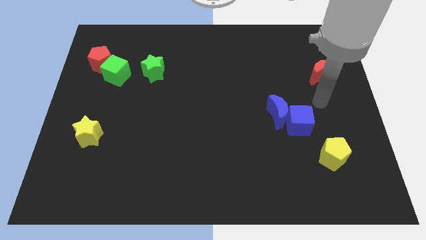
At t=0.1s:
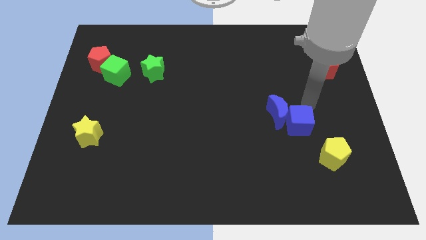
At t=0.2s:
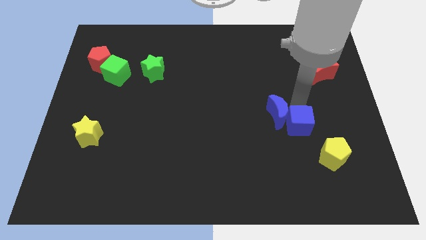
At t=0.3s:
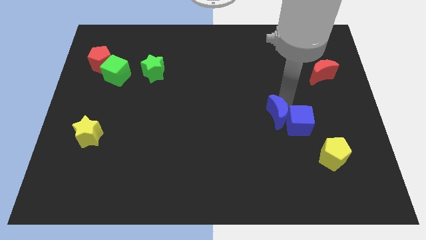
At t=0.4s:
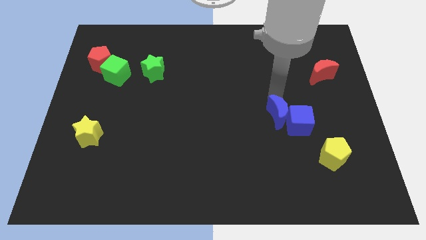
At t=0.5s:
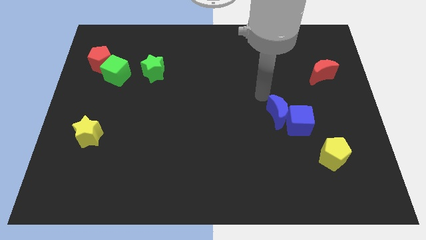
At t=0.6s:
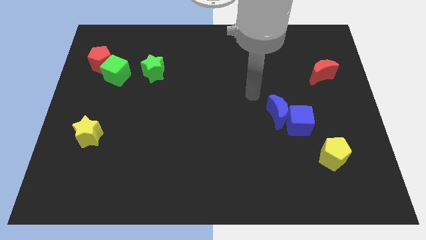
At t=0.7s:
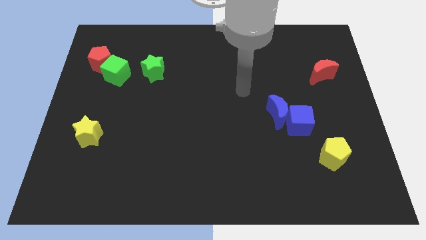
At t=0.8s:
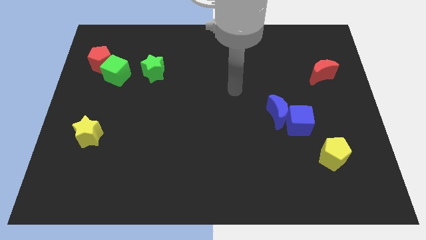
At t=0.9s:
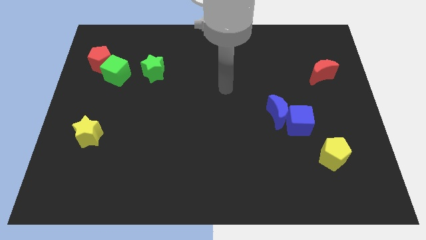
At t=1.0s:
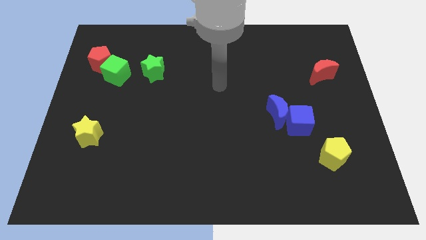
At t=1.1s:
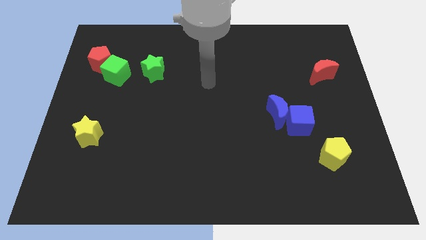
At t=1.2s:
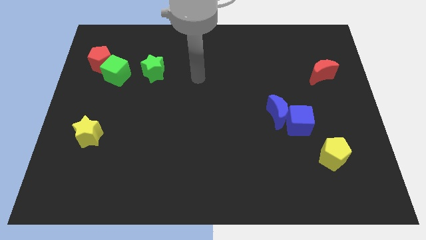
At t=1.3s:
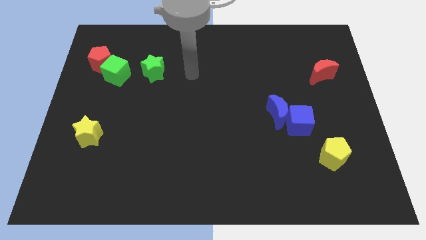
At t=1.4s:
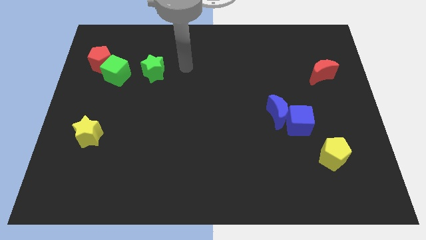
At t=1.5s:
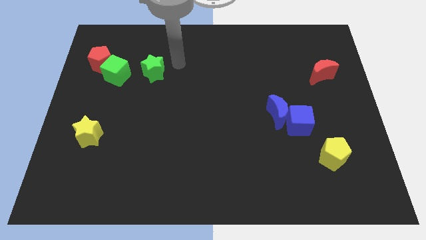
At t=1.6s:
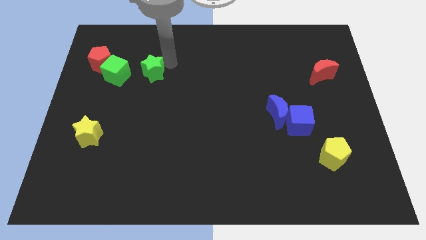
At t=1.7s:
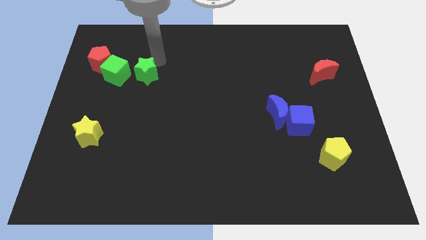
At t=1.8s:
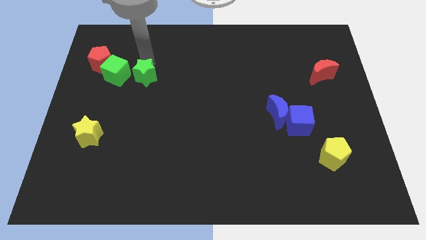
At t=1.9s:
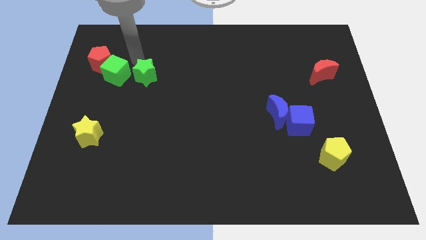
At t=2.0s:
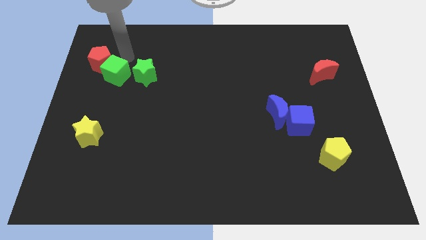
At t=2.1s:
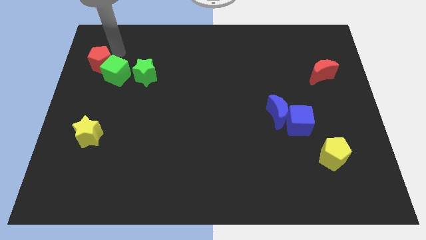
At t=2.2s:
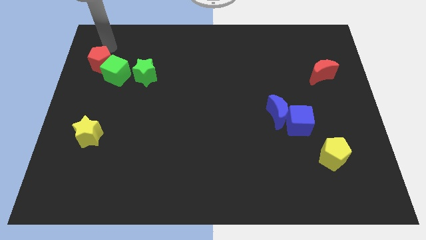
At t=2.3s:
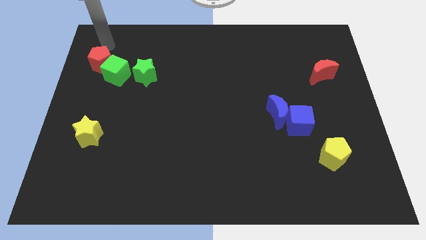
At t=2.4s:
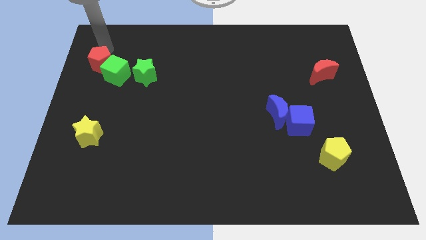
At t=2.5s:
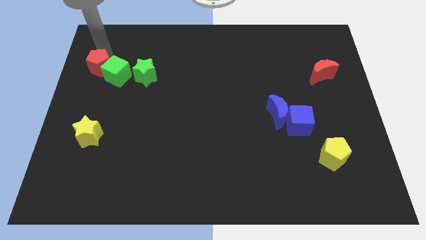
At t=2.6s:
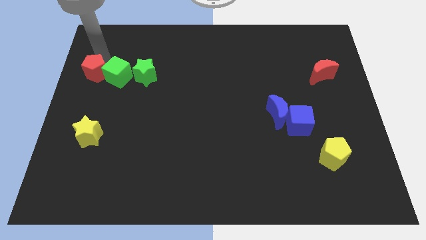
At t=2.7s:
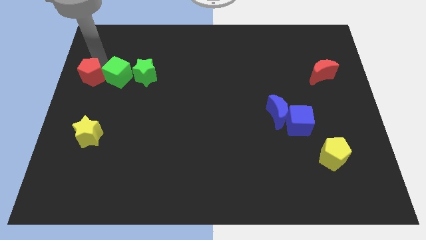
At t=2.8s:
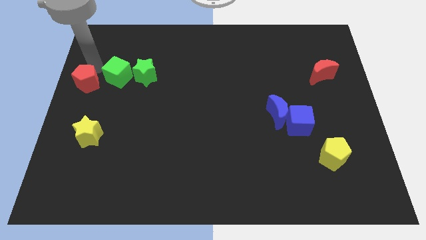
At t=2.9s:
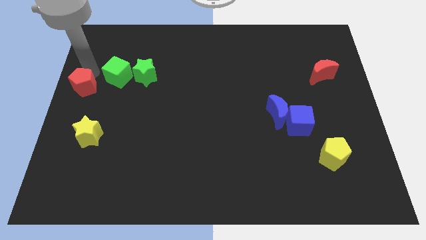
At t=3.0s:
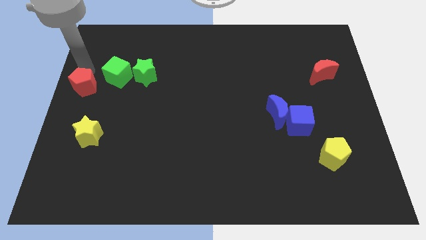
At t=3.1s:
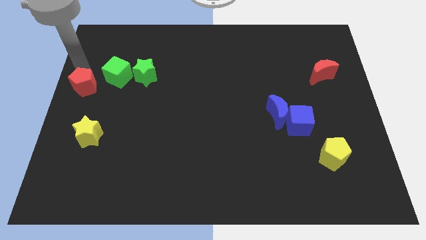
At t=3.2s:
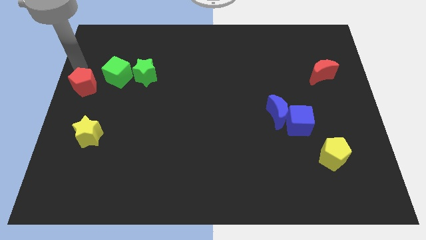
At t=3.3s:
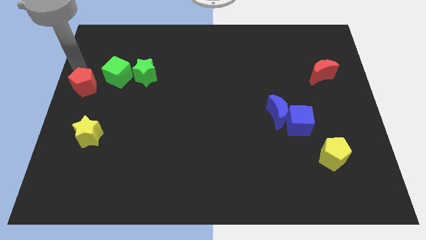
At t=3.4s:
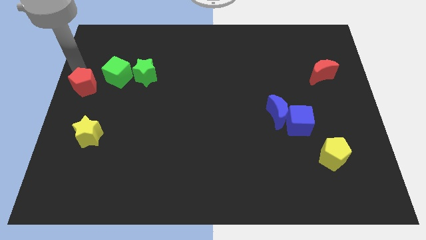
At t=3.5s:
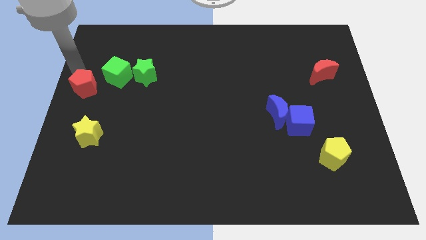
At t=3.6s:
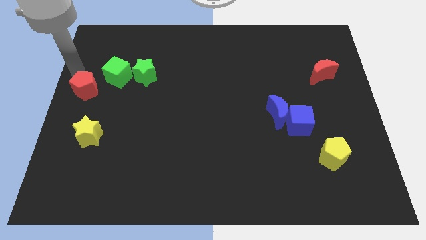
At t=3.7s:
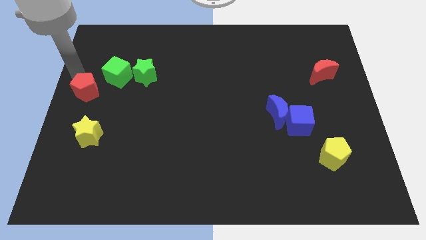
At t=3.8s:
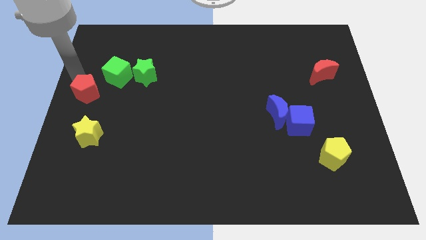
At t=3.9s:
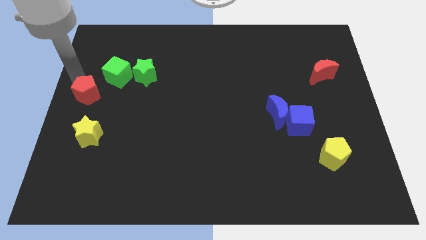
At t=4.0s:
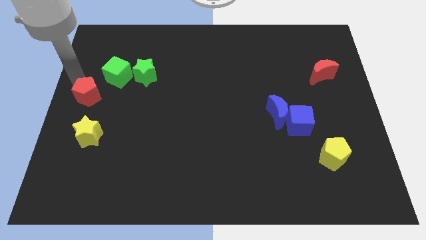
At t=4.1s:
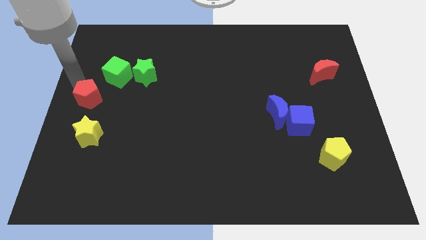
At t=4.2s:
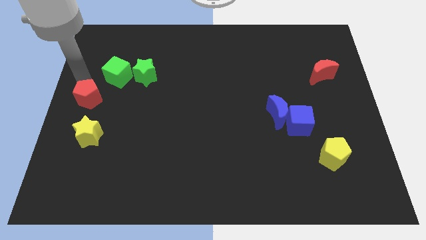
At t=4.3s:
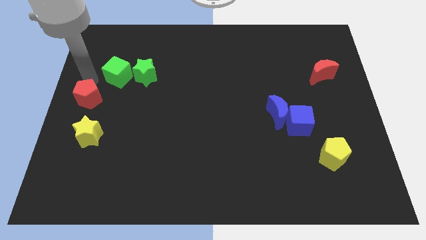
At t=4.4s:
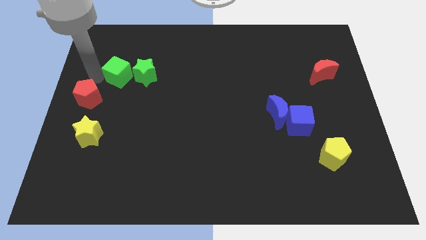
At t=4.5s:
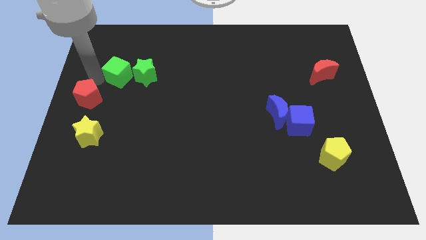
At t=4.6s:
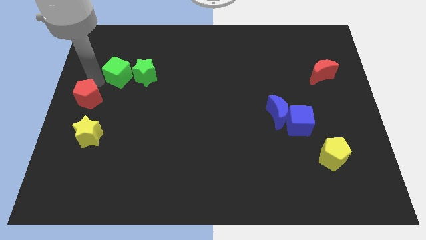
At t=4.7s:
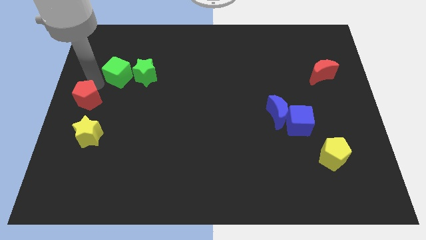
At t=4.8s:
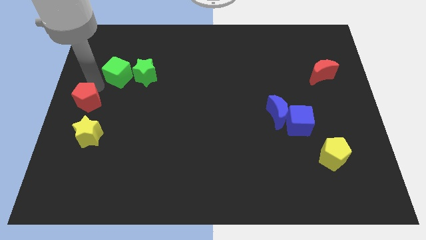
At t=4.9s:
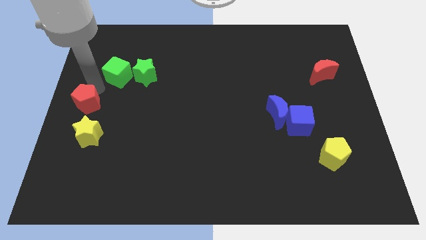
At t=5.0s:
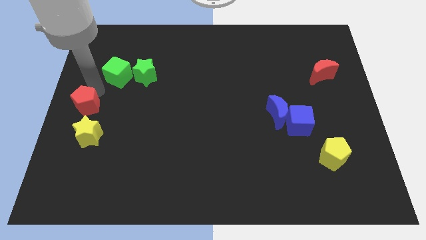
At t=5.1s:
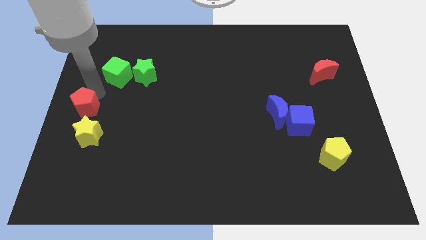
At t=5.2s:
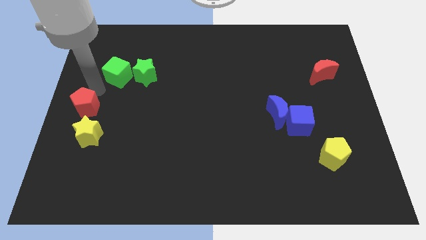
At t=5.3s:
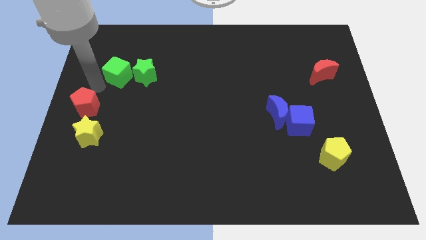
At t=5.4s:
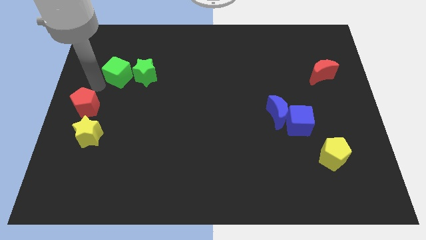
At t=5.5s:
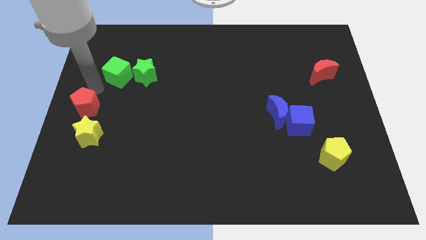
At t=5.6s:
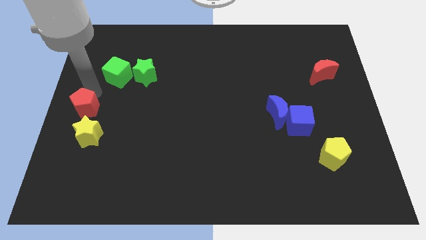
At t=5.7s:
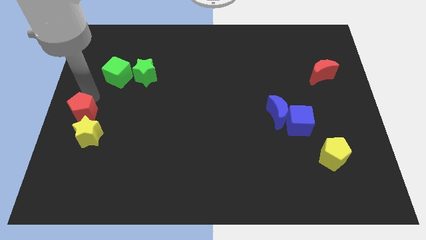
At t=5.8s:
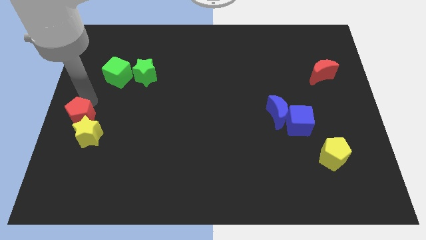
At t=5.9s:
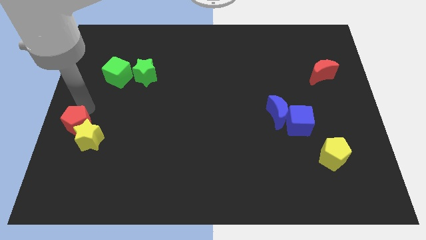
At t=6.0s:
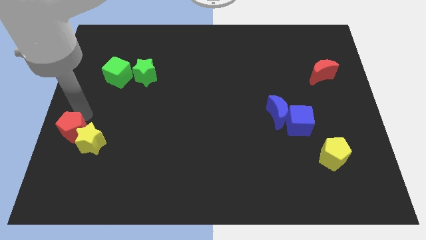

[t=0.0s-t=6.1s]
move the red pentagon downwards

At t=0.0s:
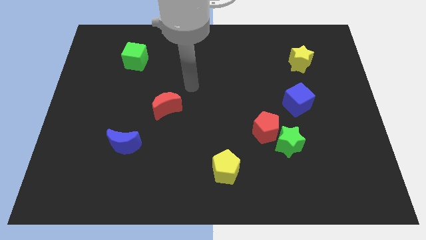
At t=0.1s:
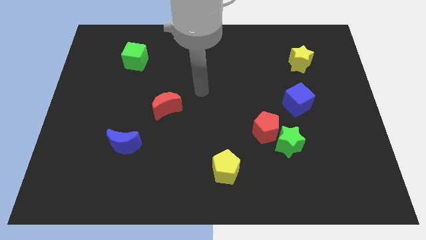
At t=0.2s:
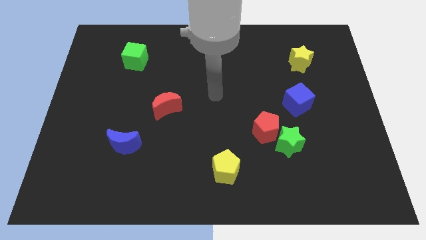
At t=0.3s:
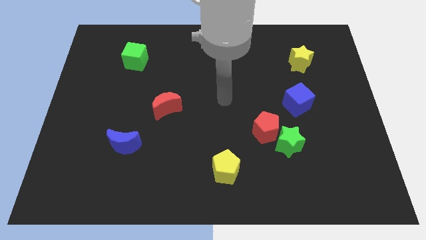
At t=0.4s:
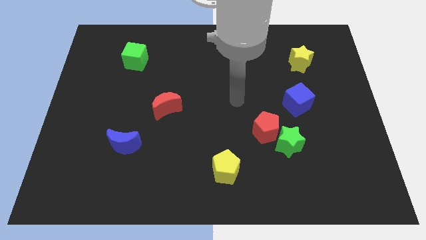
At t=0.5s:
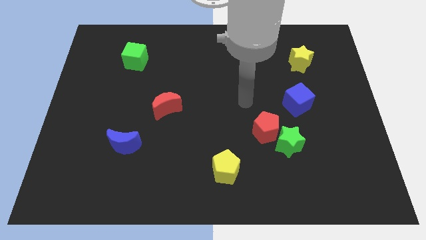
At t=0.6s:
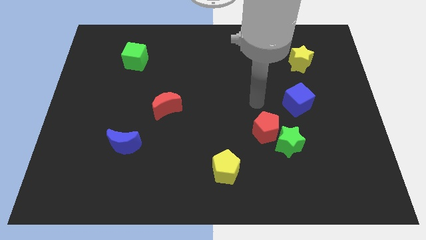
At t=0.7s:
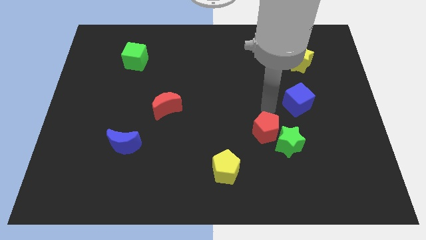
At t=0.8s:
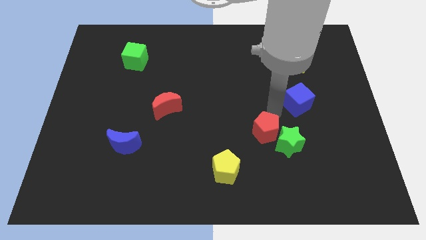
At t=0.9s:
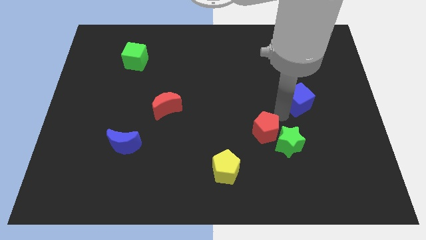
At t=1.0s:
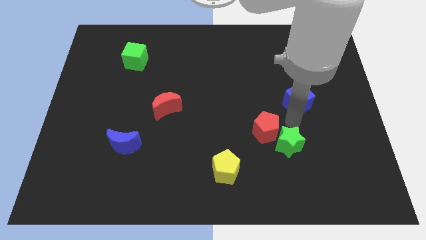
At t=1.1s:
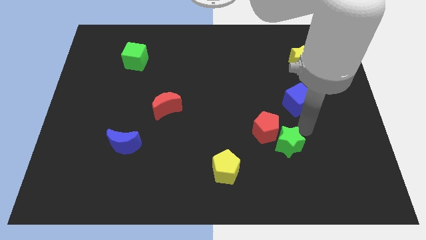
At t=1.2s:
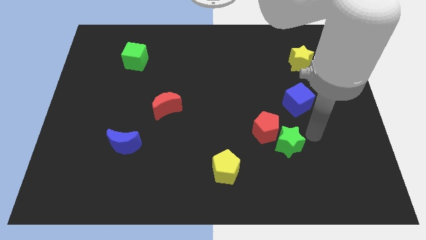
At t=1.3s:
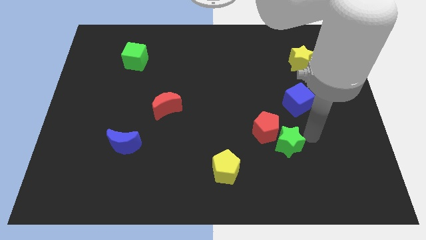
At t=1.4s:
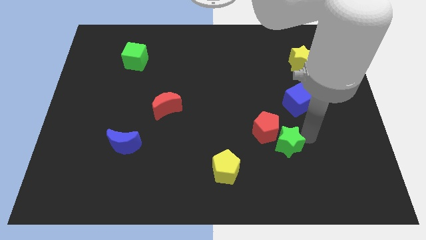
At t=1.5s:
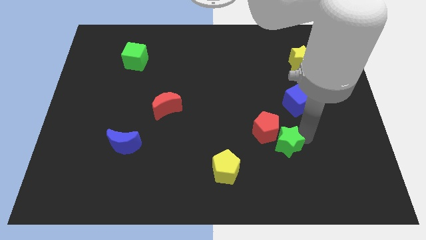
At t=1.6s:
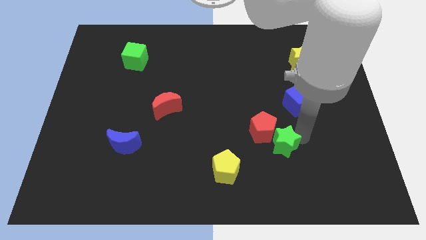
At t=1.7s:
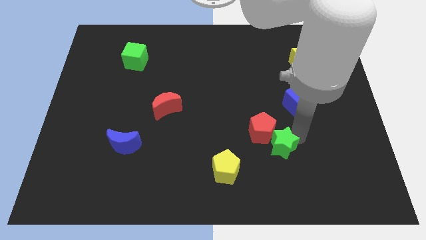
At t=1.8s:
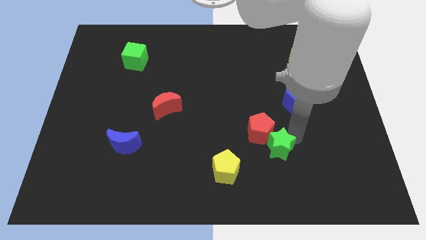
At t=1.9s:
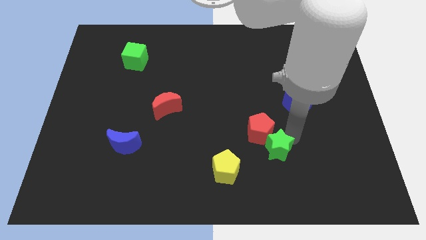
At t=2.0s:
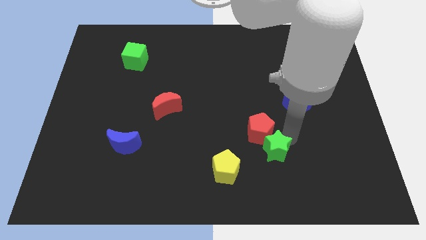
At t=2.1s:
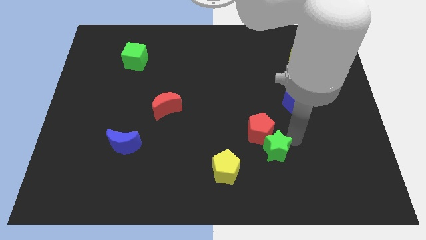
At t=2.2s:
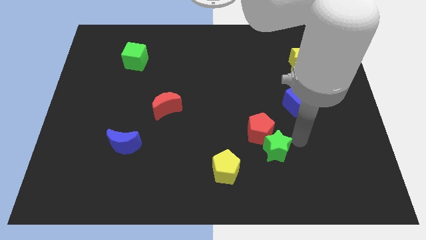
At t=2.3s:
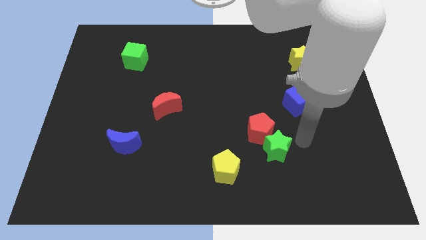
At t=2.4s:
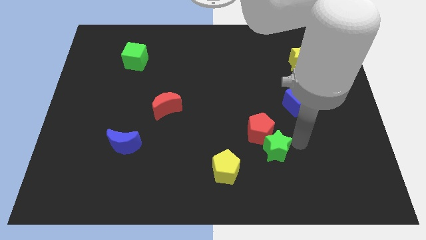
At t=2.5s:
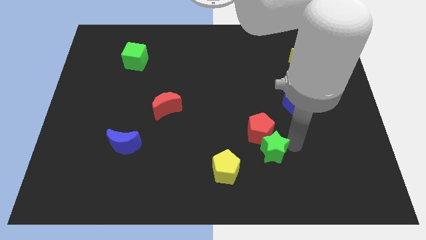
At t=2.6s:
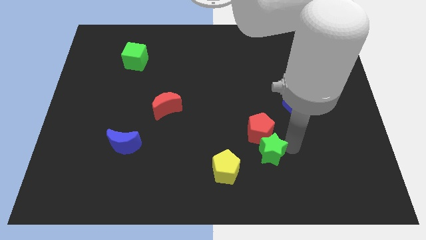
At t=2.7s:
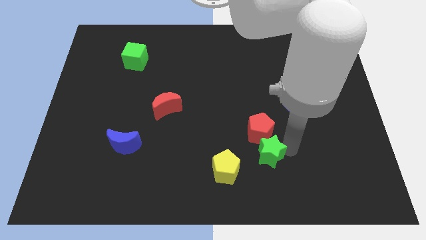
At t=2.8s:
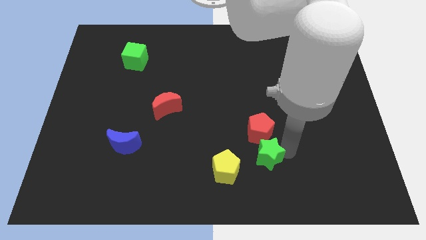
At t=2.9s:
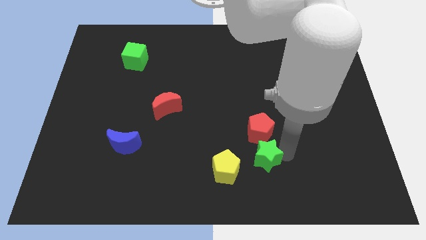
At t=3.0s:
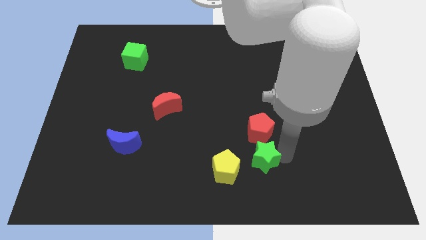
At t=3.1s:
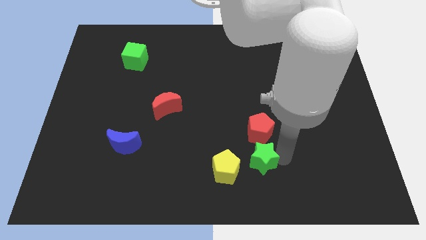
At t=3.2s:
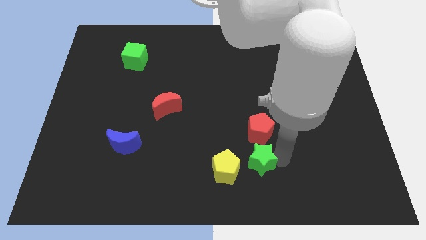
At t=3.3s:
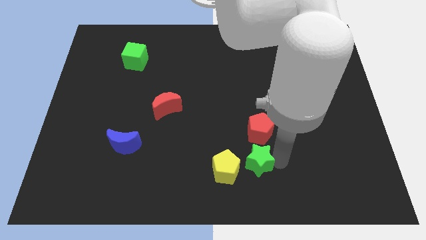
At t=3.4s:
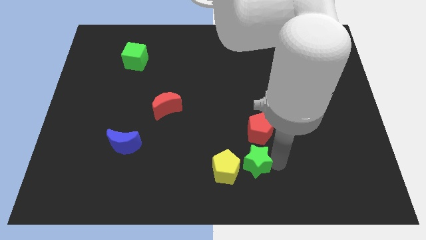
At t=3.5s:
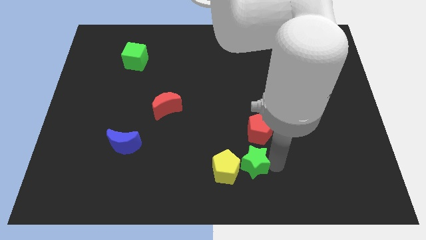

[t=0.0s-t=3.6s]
push the green star a bit to the left
